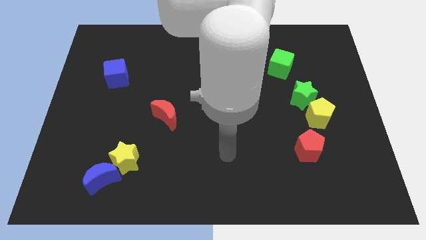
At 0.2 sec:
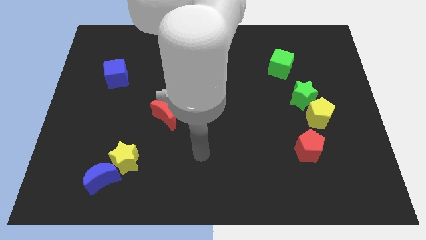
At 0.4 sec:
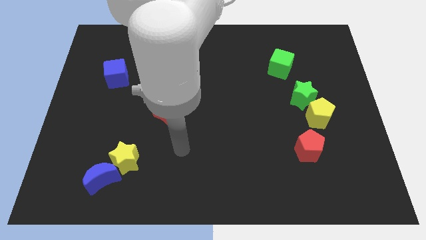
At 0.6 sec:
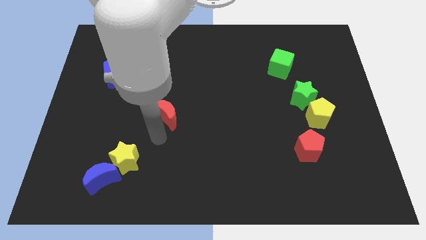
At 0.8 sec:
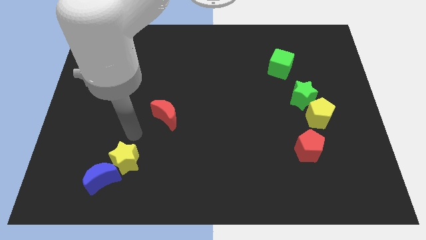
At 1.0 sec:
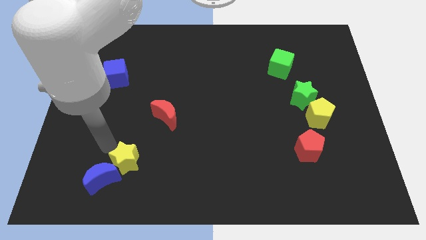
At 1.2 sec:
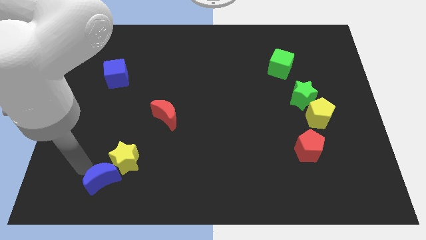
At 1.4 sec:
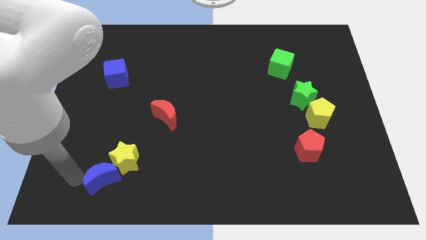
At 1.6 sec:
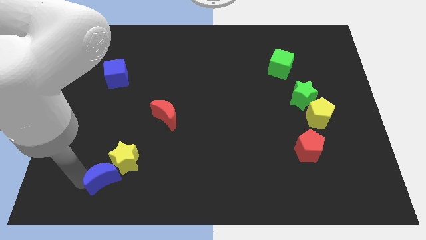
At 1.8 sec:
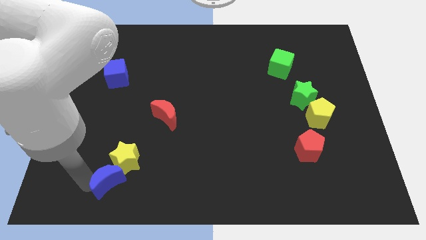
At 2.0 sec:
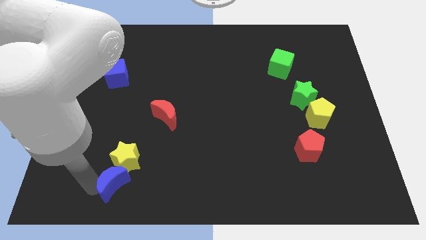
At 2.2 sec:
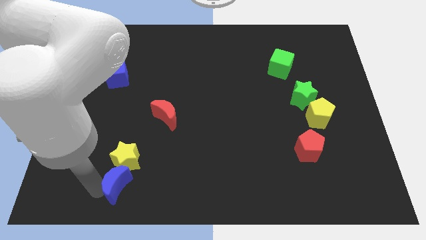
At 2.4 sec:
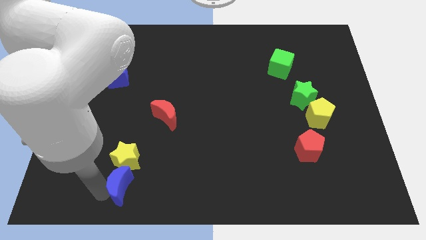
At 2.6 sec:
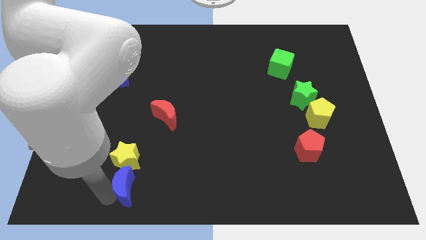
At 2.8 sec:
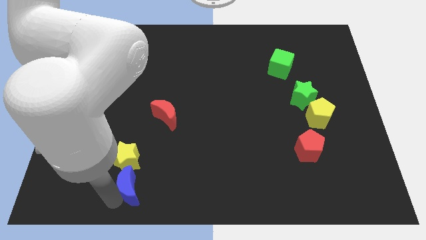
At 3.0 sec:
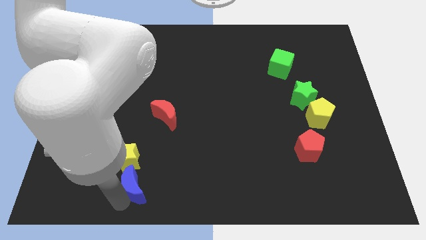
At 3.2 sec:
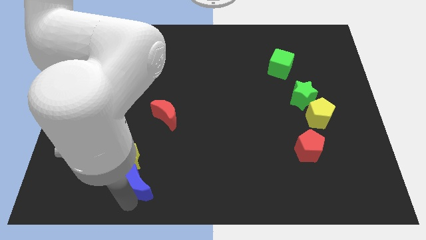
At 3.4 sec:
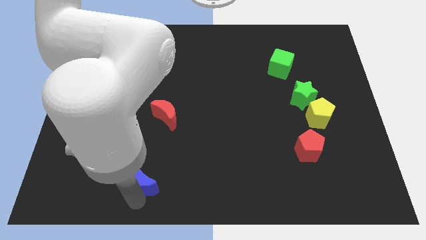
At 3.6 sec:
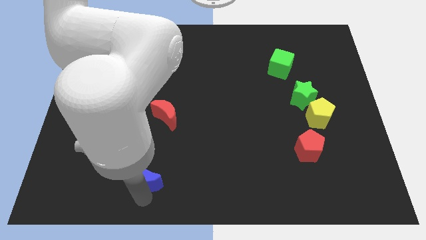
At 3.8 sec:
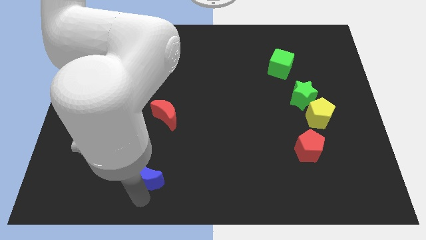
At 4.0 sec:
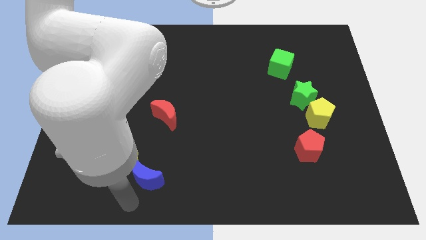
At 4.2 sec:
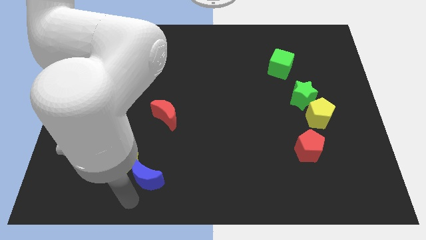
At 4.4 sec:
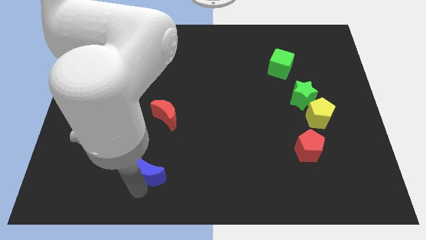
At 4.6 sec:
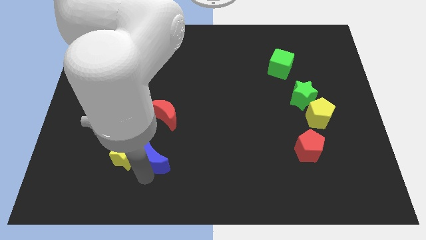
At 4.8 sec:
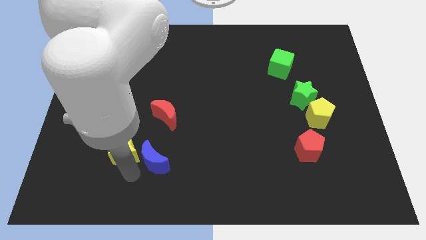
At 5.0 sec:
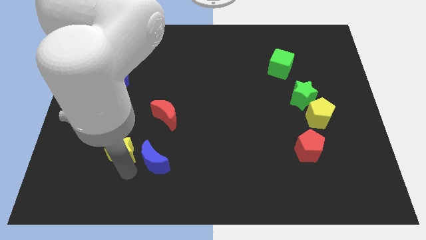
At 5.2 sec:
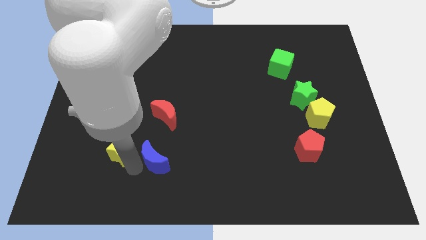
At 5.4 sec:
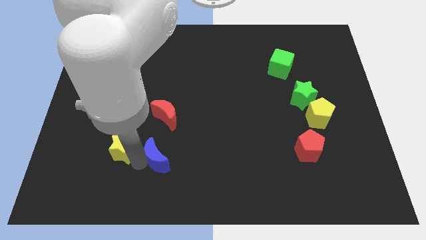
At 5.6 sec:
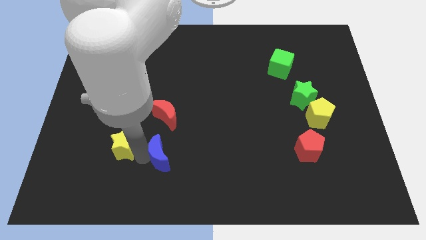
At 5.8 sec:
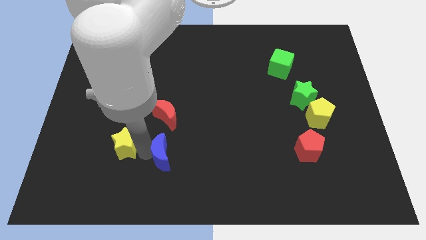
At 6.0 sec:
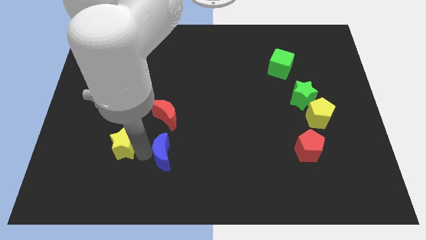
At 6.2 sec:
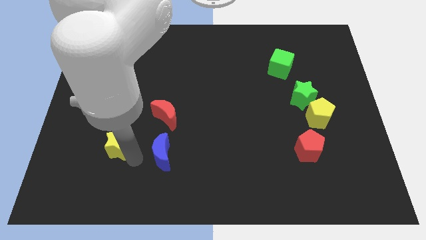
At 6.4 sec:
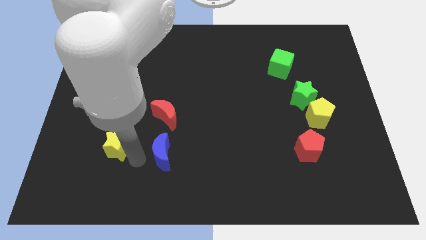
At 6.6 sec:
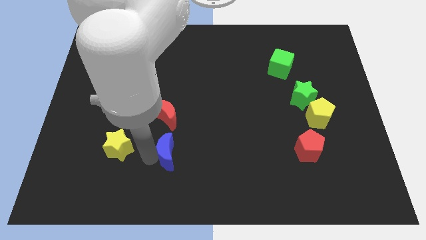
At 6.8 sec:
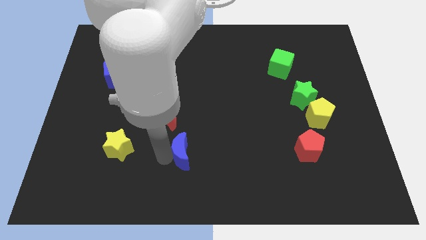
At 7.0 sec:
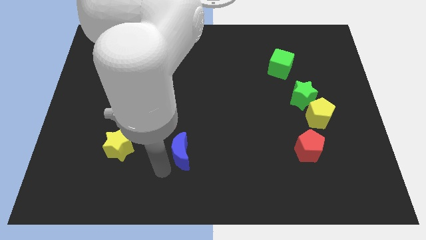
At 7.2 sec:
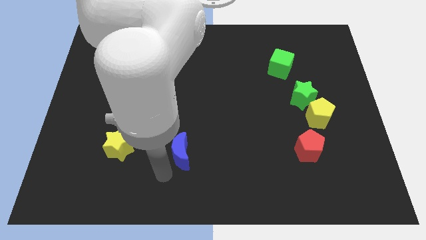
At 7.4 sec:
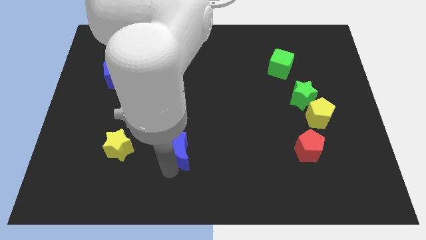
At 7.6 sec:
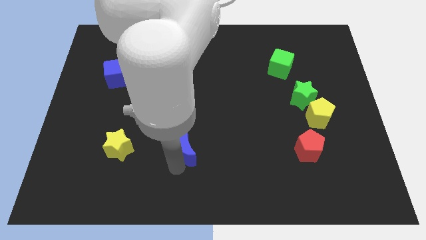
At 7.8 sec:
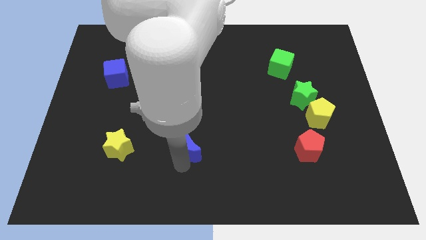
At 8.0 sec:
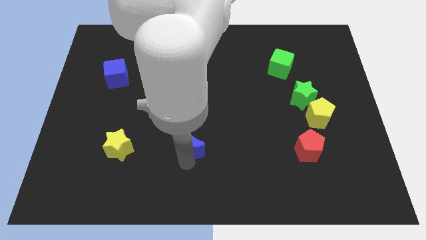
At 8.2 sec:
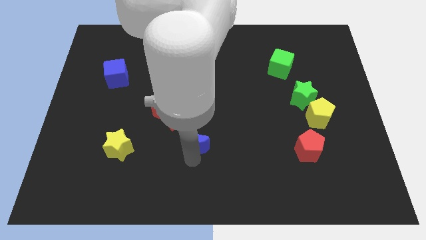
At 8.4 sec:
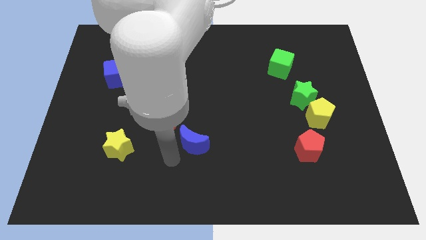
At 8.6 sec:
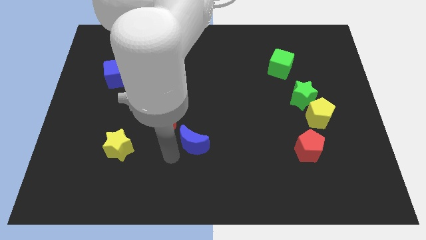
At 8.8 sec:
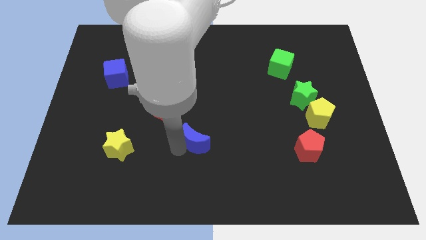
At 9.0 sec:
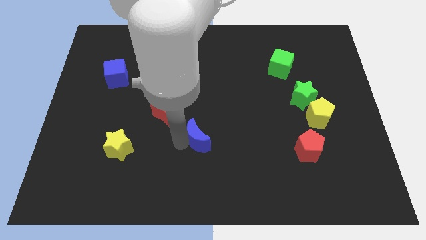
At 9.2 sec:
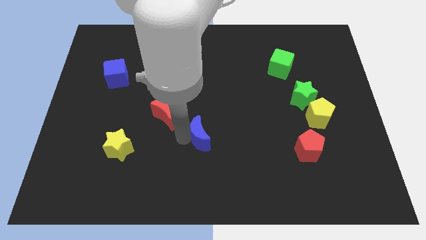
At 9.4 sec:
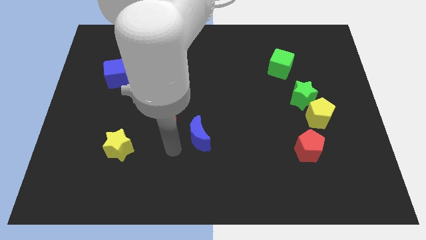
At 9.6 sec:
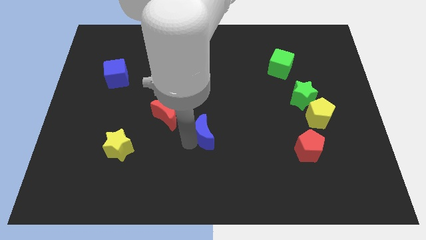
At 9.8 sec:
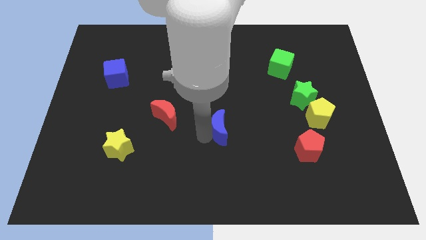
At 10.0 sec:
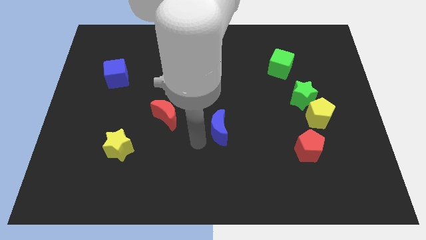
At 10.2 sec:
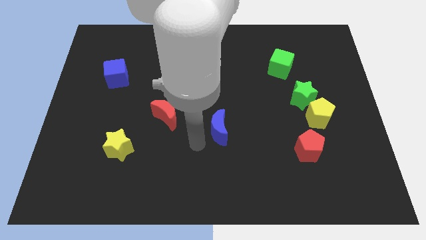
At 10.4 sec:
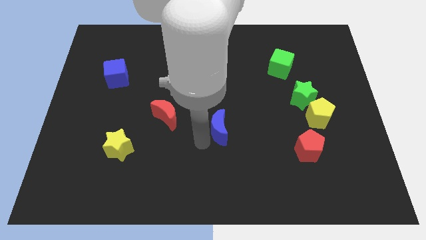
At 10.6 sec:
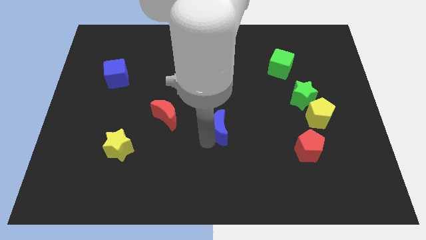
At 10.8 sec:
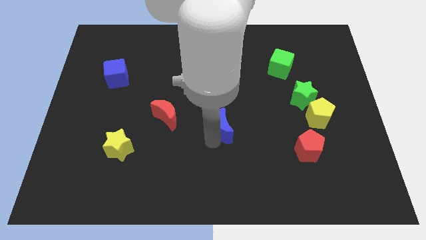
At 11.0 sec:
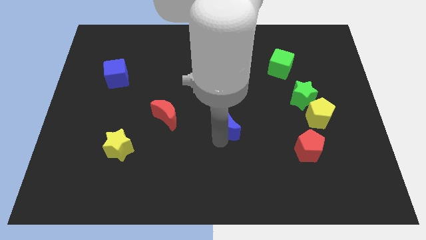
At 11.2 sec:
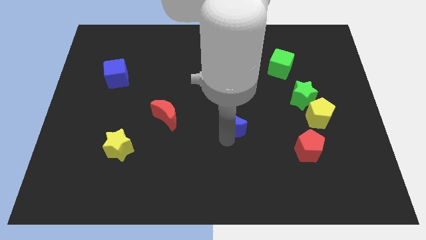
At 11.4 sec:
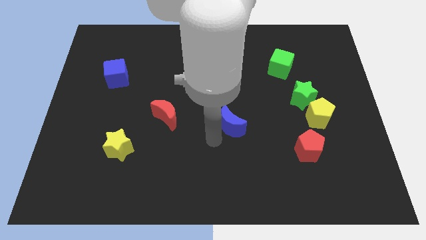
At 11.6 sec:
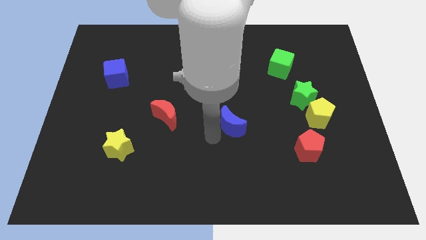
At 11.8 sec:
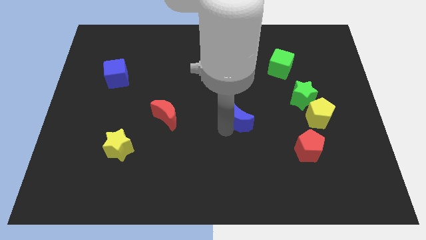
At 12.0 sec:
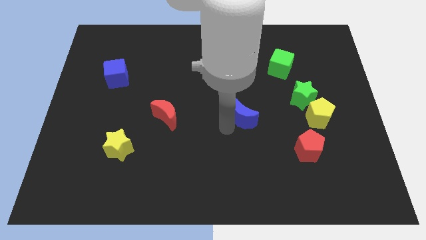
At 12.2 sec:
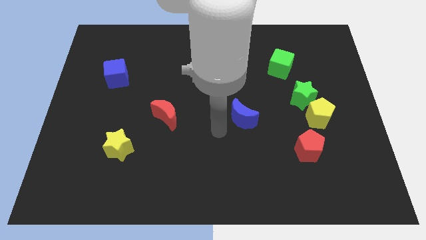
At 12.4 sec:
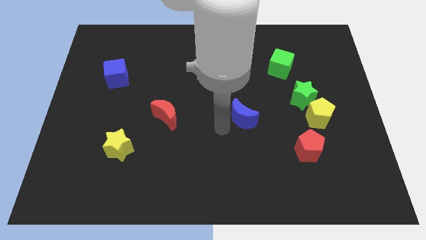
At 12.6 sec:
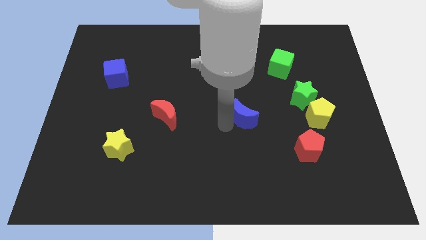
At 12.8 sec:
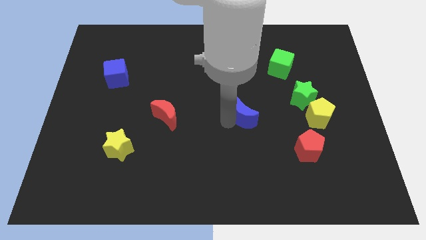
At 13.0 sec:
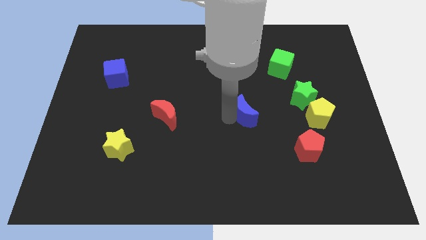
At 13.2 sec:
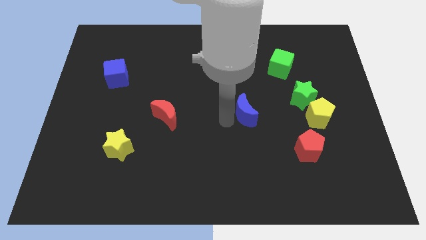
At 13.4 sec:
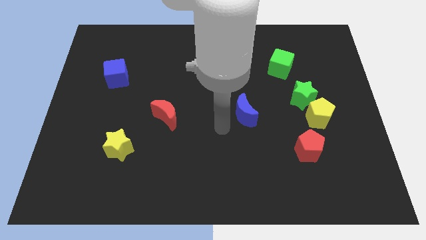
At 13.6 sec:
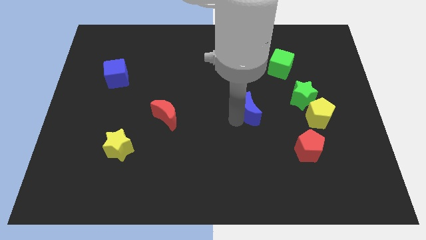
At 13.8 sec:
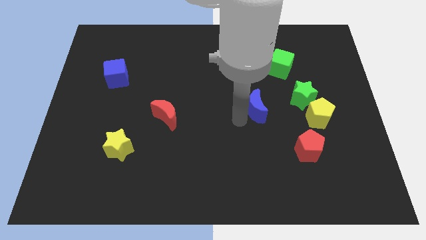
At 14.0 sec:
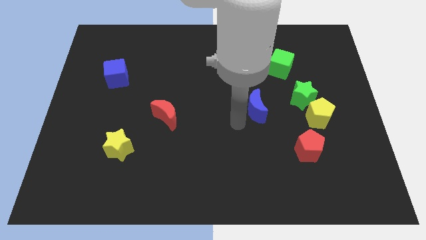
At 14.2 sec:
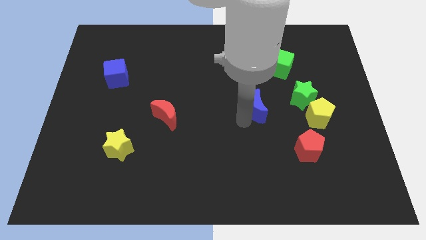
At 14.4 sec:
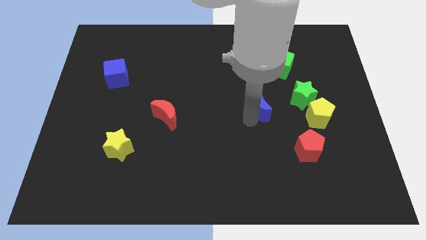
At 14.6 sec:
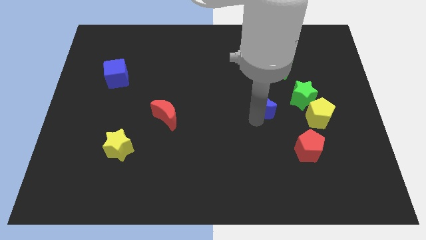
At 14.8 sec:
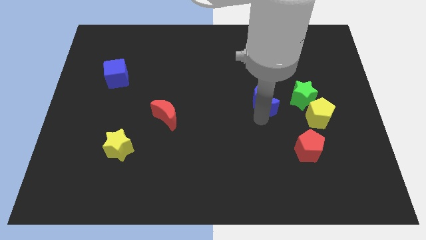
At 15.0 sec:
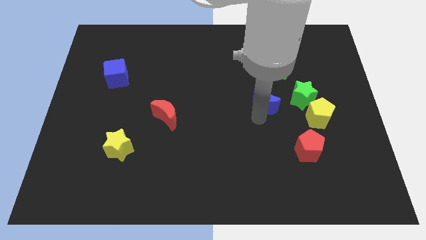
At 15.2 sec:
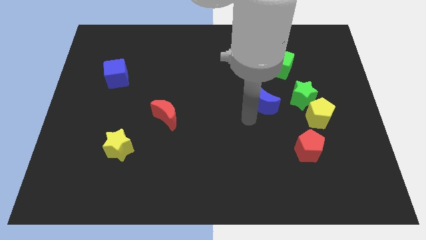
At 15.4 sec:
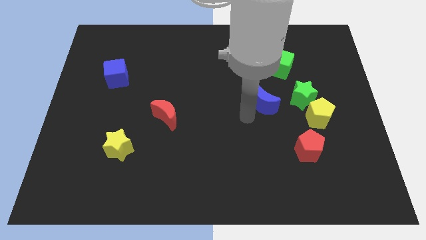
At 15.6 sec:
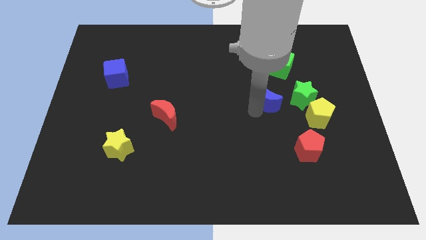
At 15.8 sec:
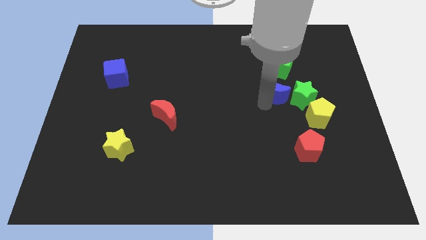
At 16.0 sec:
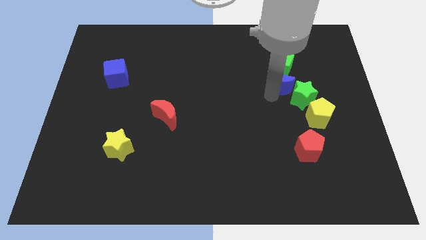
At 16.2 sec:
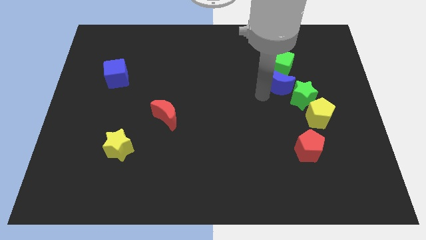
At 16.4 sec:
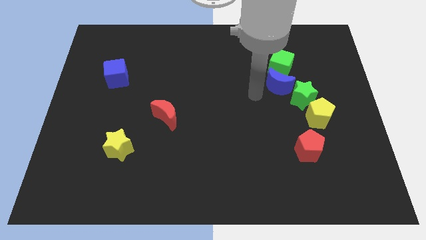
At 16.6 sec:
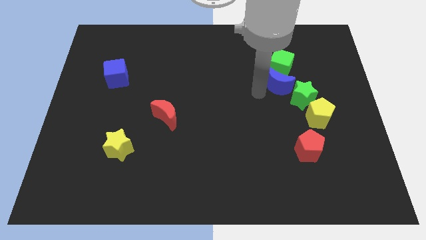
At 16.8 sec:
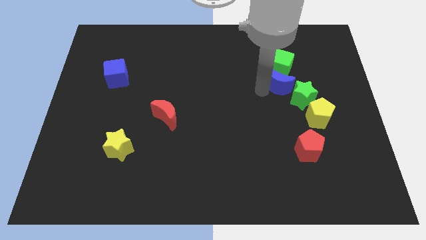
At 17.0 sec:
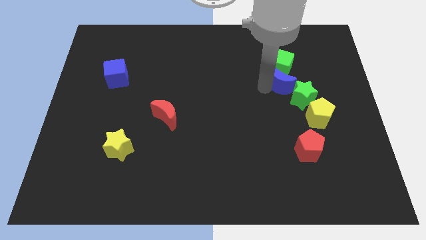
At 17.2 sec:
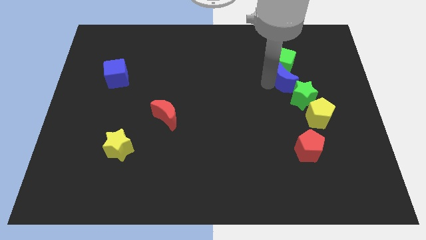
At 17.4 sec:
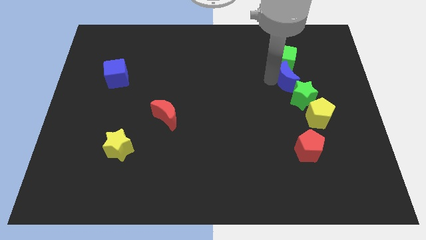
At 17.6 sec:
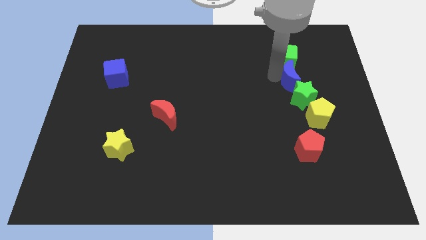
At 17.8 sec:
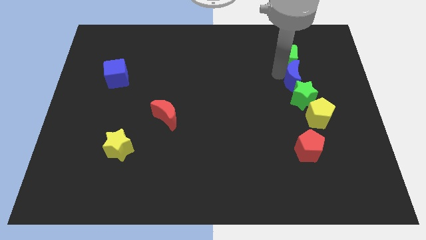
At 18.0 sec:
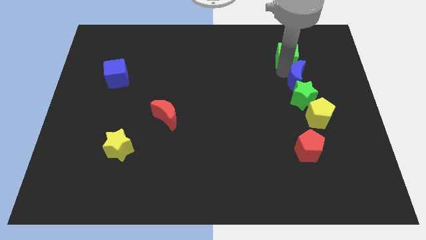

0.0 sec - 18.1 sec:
move the blue moon to the top right side of the green star

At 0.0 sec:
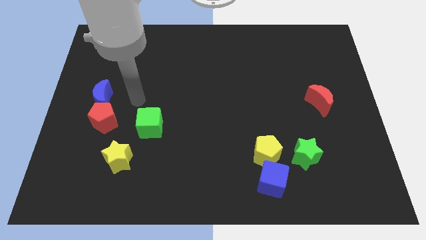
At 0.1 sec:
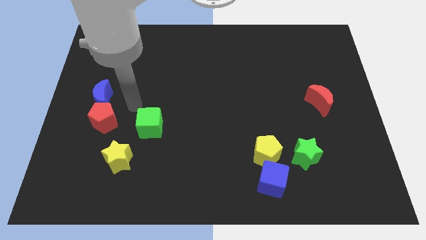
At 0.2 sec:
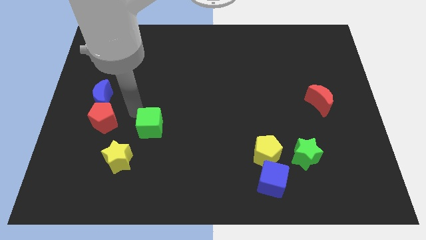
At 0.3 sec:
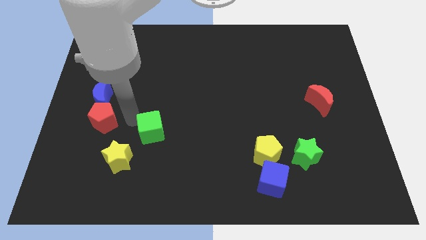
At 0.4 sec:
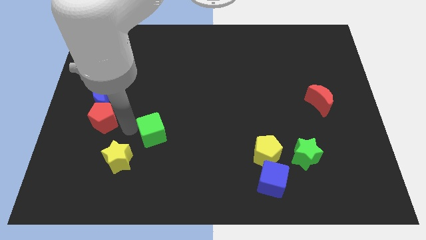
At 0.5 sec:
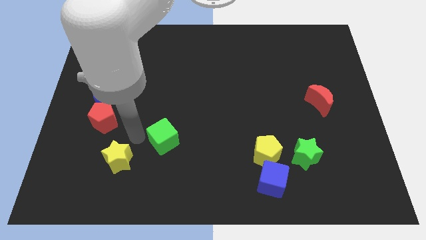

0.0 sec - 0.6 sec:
move the yellow star left of the green cube
